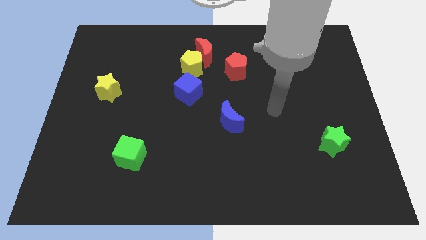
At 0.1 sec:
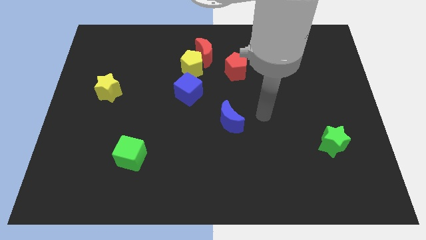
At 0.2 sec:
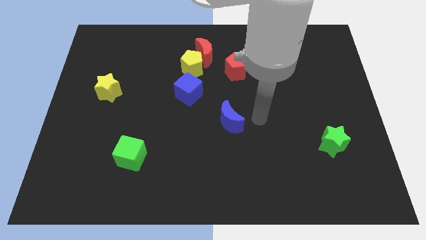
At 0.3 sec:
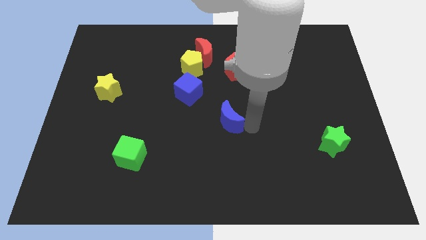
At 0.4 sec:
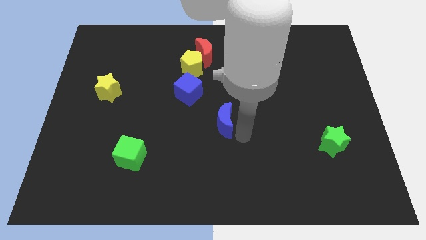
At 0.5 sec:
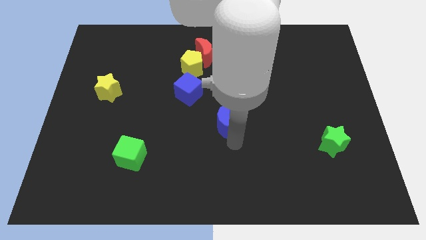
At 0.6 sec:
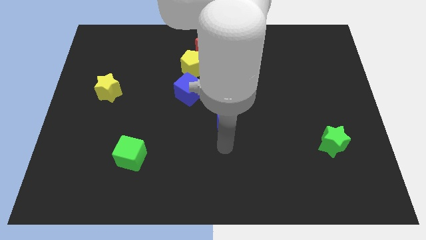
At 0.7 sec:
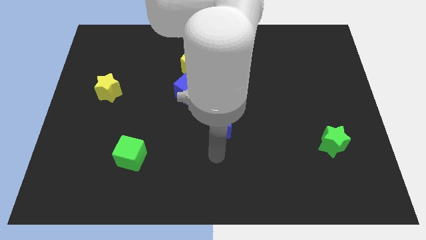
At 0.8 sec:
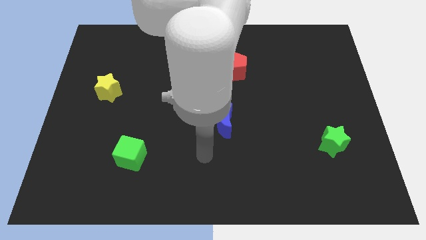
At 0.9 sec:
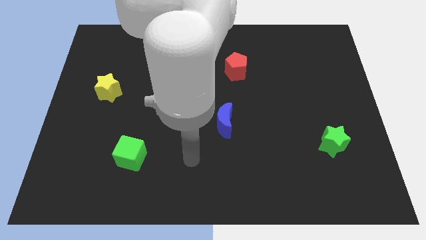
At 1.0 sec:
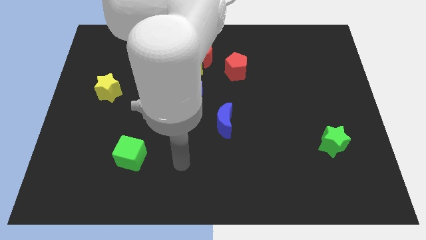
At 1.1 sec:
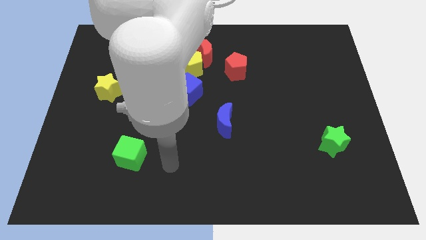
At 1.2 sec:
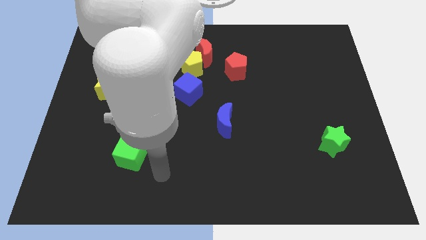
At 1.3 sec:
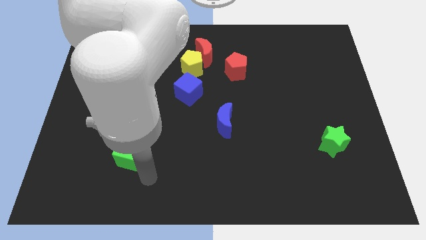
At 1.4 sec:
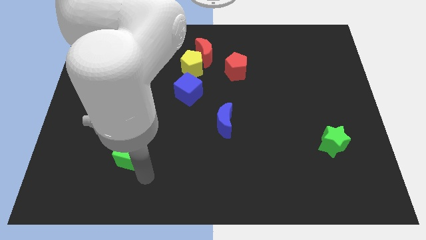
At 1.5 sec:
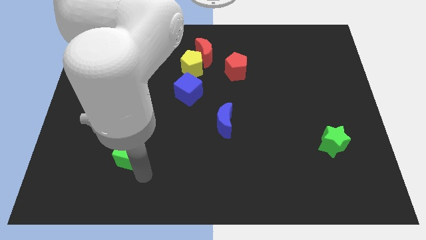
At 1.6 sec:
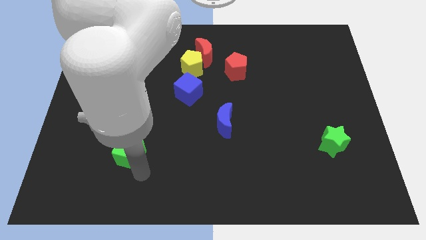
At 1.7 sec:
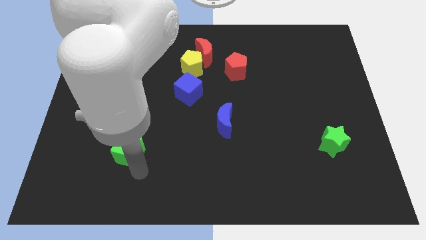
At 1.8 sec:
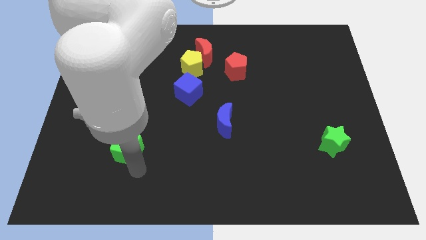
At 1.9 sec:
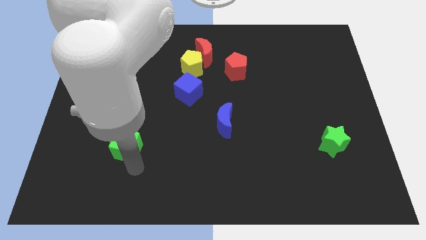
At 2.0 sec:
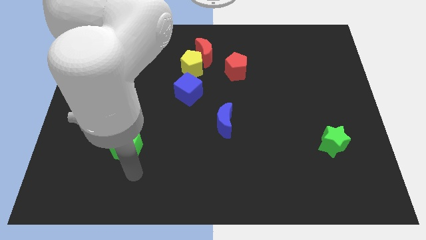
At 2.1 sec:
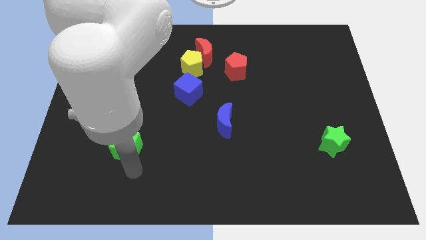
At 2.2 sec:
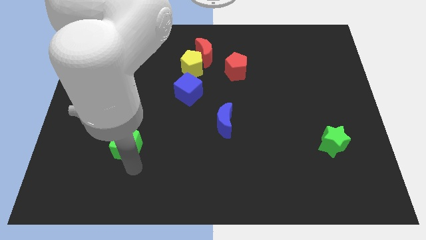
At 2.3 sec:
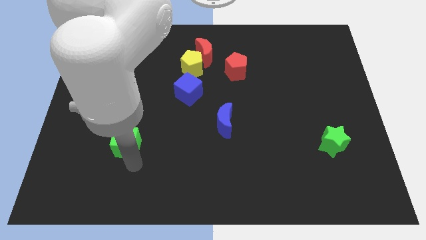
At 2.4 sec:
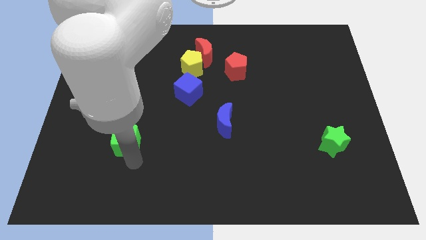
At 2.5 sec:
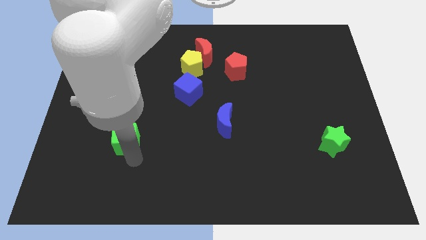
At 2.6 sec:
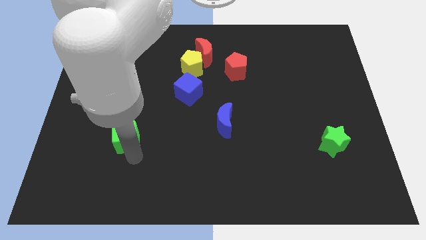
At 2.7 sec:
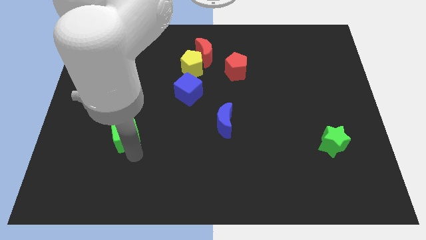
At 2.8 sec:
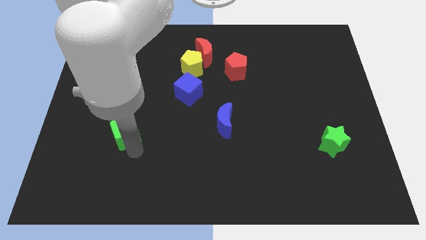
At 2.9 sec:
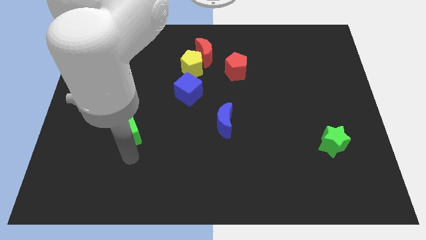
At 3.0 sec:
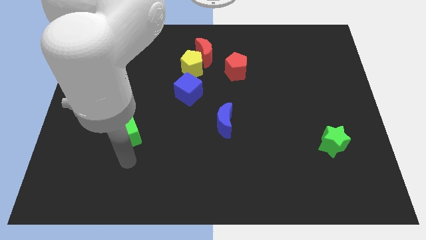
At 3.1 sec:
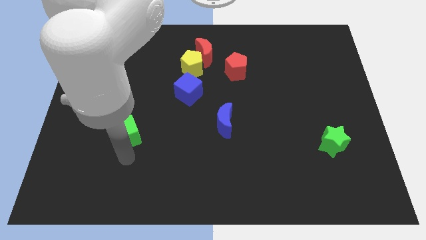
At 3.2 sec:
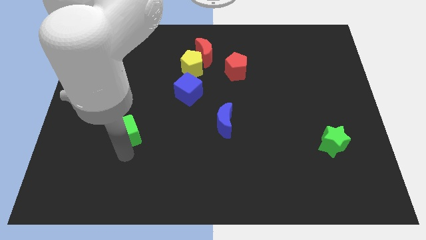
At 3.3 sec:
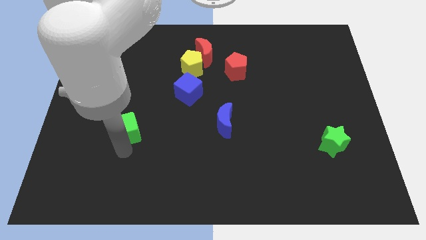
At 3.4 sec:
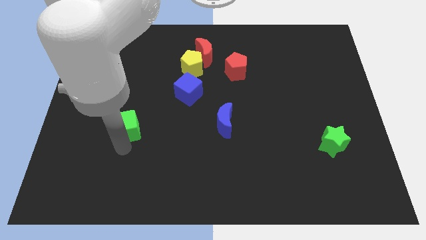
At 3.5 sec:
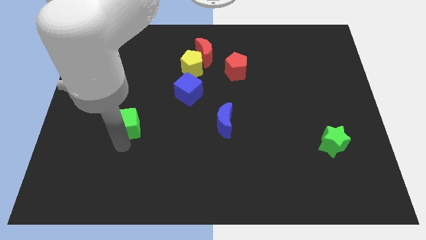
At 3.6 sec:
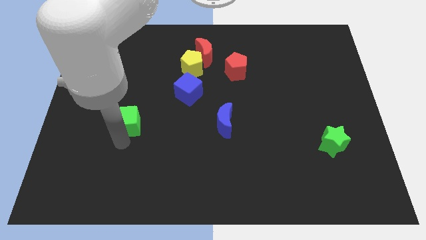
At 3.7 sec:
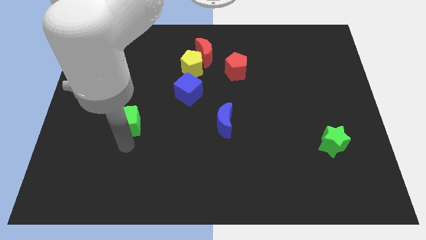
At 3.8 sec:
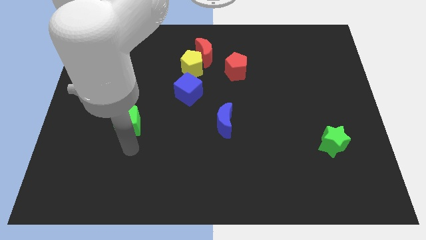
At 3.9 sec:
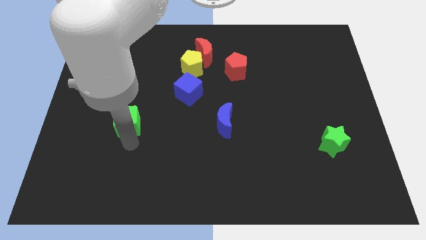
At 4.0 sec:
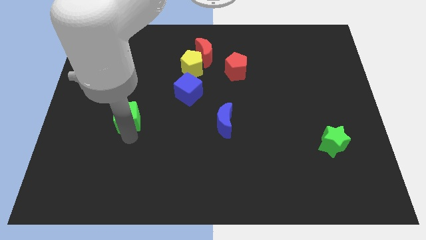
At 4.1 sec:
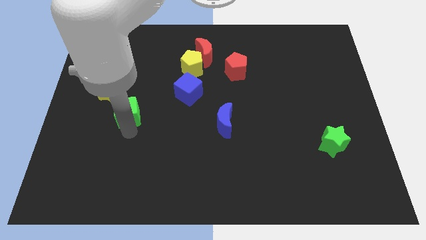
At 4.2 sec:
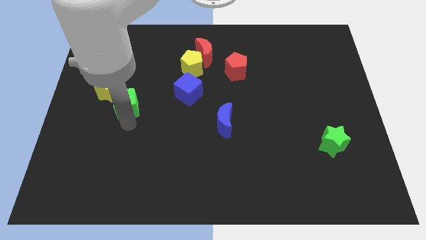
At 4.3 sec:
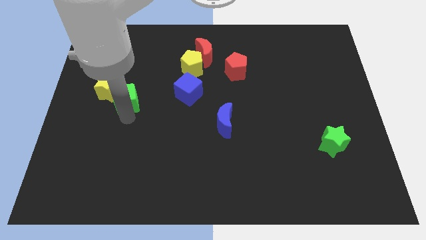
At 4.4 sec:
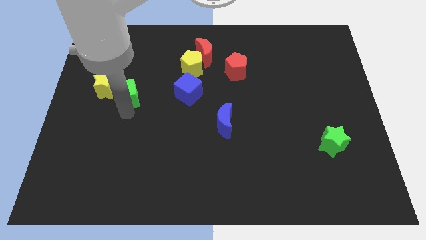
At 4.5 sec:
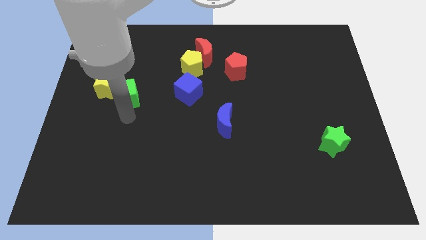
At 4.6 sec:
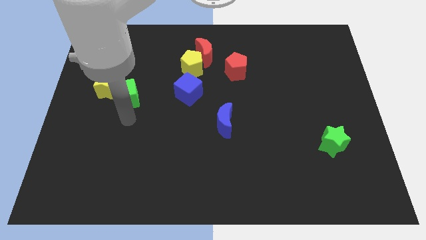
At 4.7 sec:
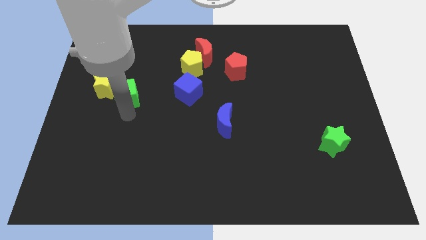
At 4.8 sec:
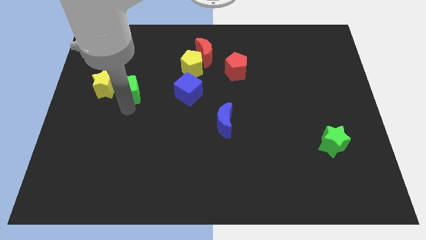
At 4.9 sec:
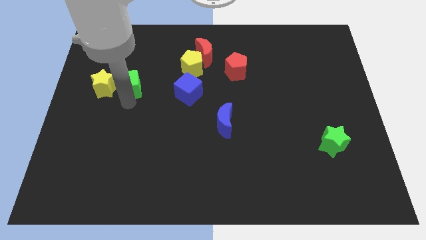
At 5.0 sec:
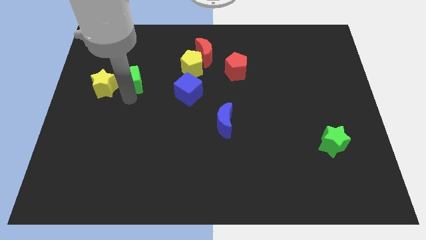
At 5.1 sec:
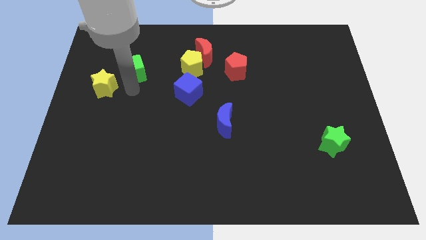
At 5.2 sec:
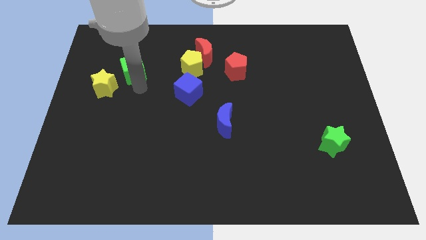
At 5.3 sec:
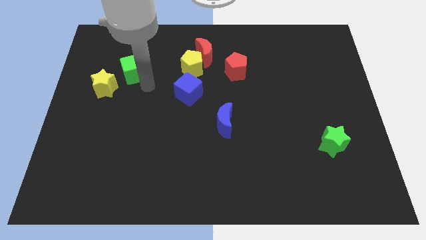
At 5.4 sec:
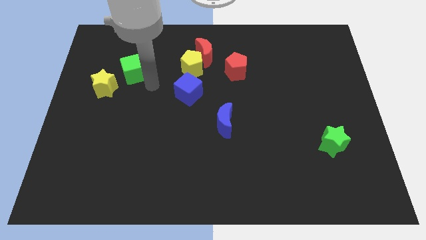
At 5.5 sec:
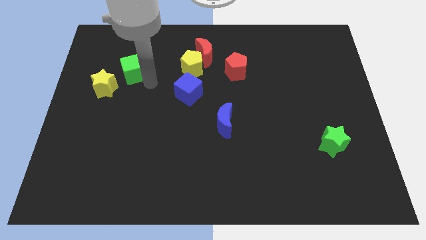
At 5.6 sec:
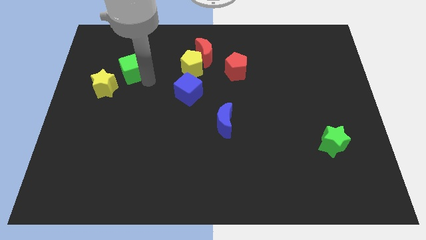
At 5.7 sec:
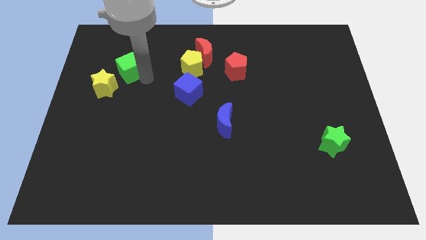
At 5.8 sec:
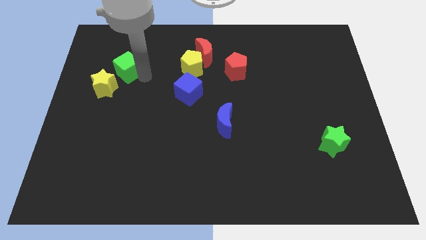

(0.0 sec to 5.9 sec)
move the green cube above the yellow star

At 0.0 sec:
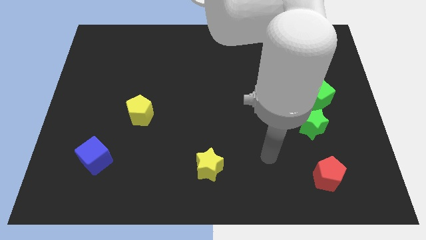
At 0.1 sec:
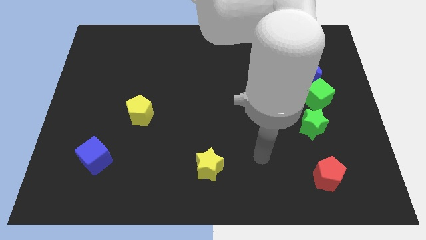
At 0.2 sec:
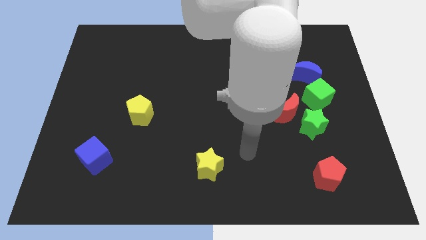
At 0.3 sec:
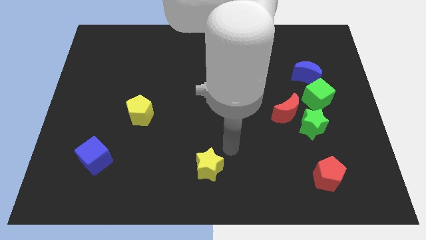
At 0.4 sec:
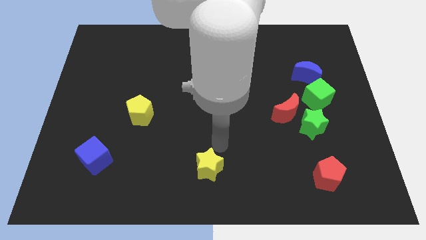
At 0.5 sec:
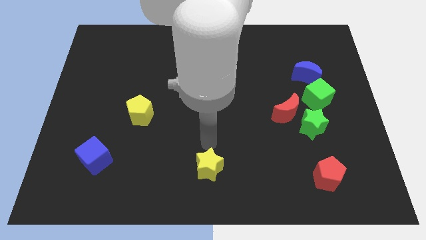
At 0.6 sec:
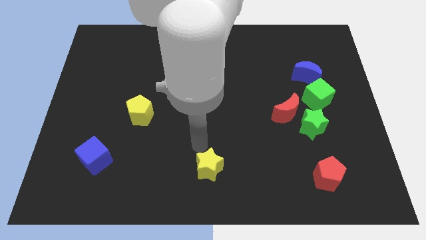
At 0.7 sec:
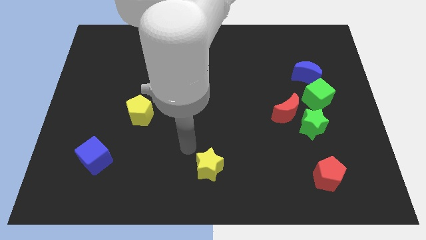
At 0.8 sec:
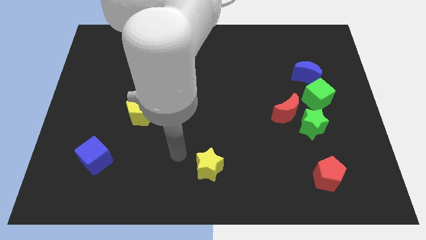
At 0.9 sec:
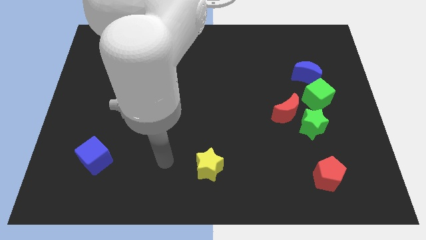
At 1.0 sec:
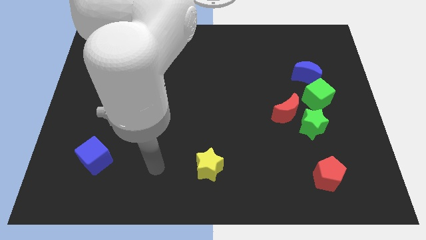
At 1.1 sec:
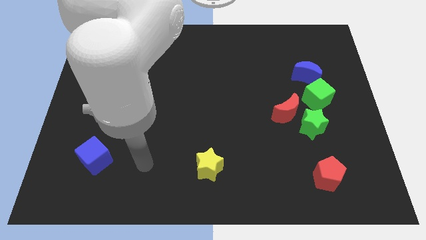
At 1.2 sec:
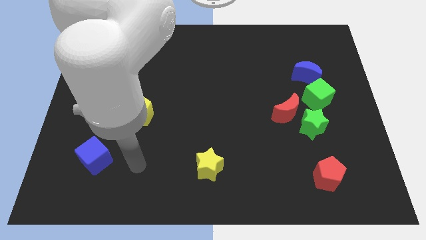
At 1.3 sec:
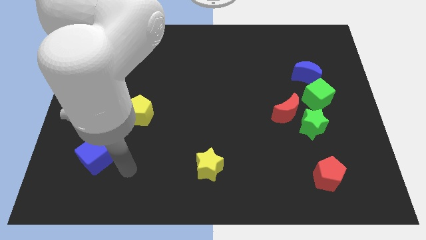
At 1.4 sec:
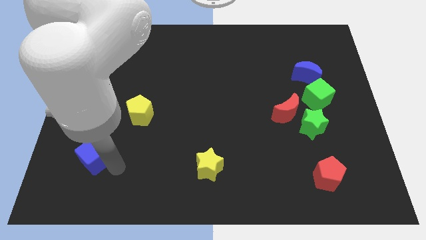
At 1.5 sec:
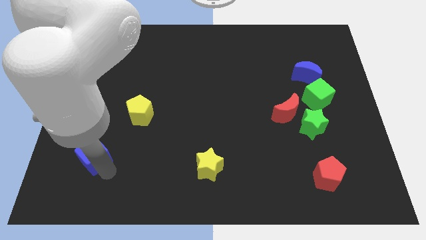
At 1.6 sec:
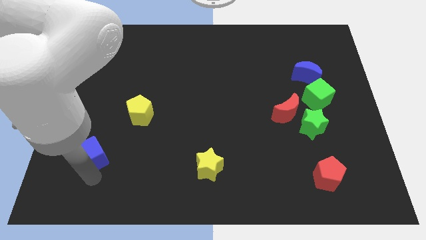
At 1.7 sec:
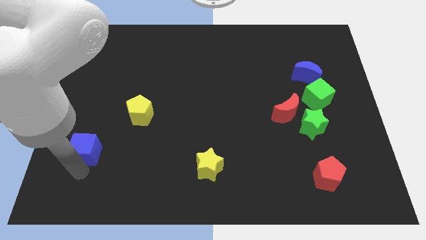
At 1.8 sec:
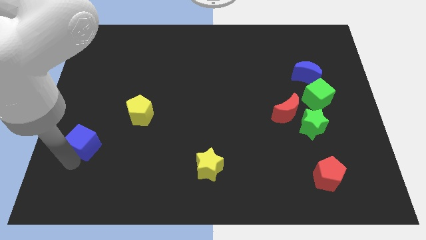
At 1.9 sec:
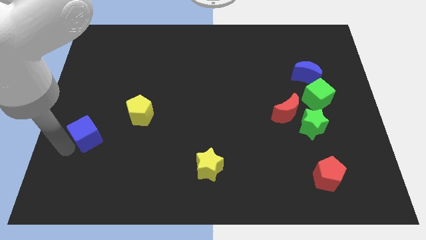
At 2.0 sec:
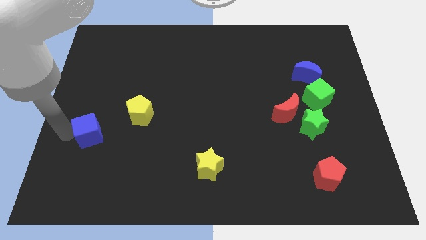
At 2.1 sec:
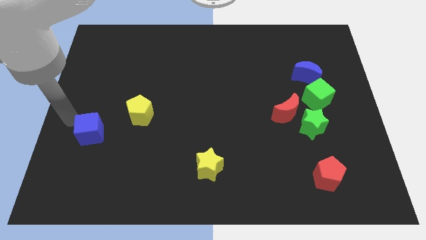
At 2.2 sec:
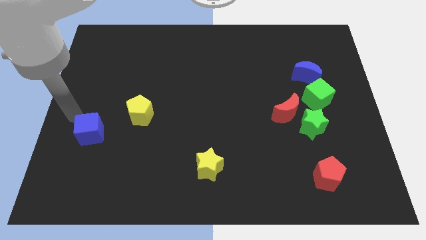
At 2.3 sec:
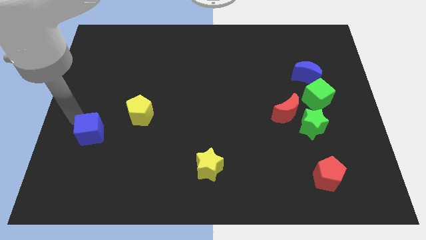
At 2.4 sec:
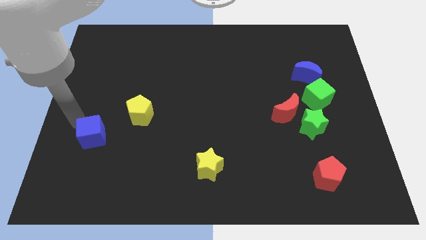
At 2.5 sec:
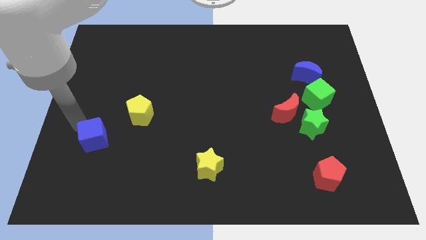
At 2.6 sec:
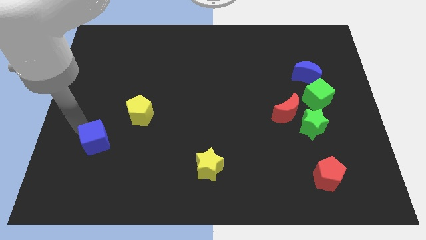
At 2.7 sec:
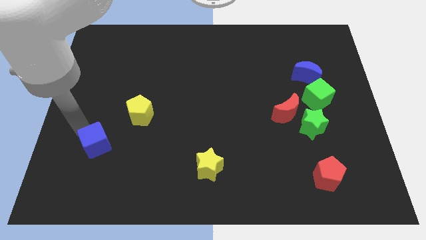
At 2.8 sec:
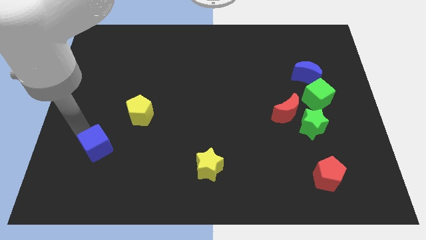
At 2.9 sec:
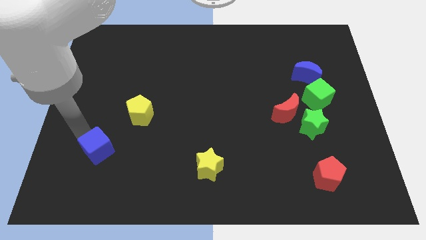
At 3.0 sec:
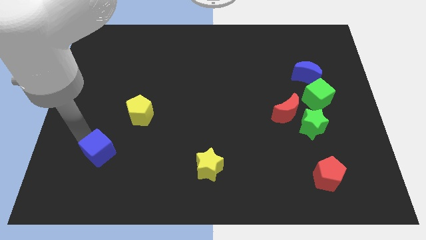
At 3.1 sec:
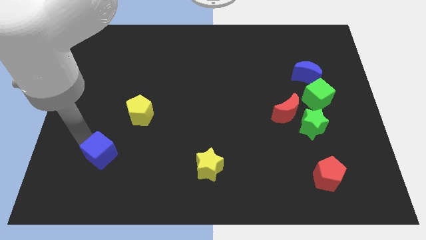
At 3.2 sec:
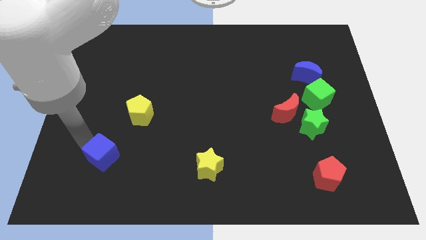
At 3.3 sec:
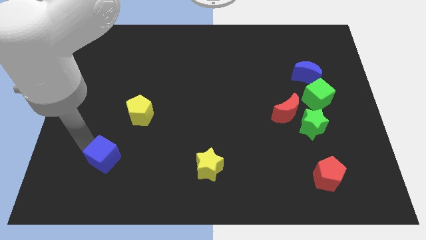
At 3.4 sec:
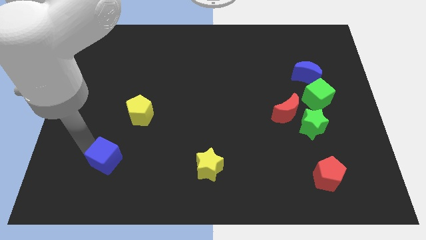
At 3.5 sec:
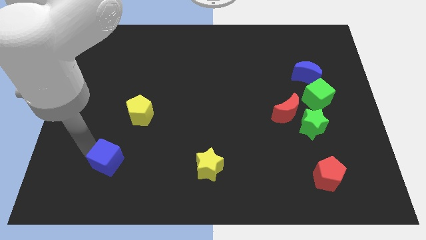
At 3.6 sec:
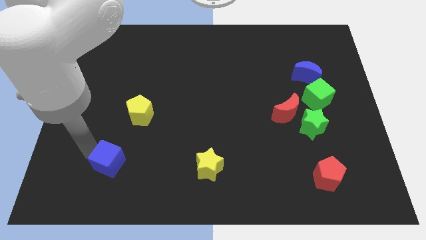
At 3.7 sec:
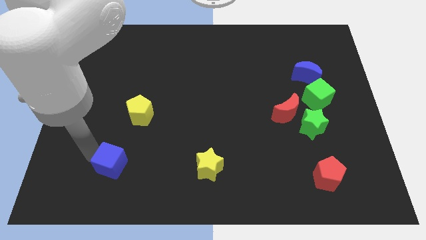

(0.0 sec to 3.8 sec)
push the blue cube to the bottom of the yellow pentagon
